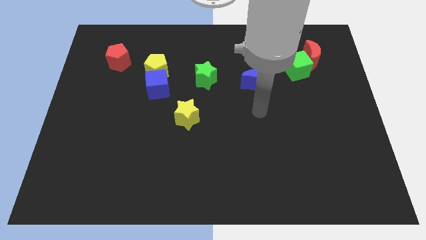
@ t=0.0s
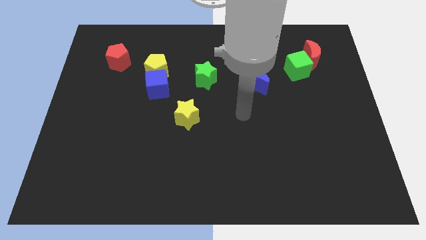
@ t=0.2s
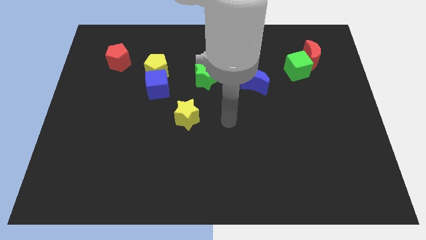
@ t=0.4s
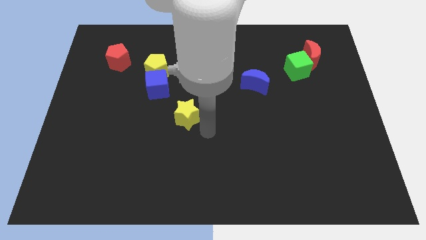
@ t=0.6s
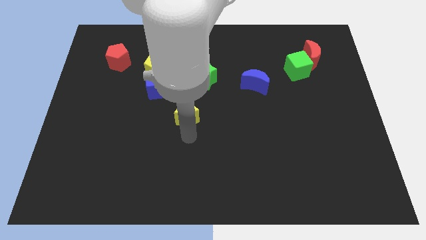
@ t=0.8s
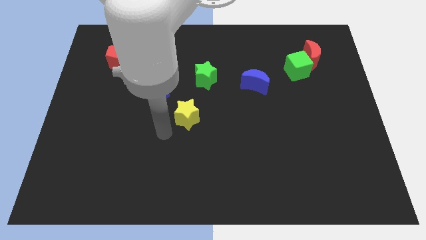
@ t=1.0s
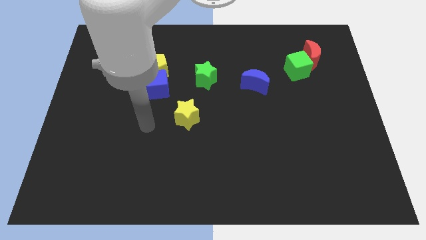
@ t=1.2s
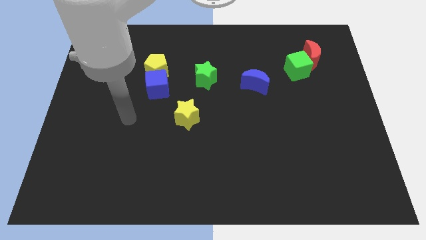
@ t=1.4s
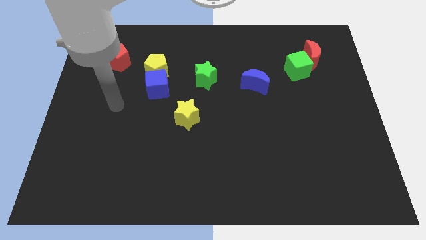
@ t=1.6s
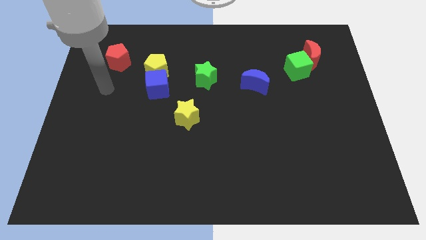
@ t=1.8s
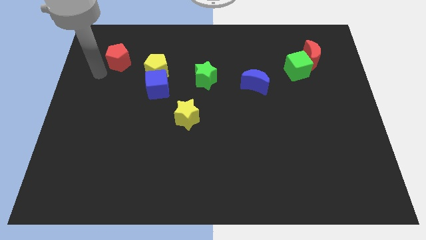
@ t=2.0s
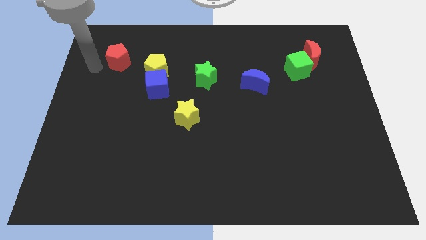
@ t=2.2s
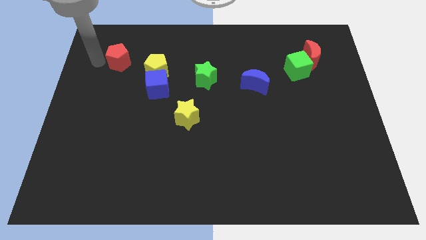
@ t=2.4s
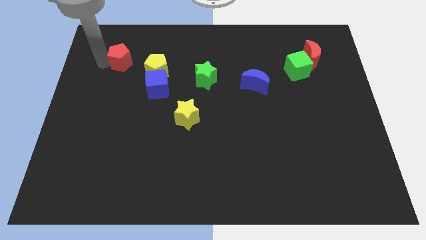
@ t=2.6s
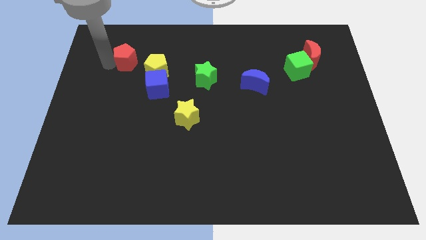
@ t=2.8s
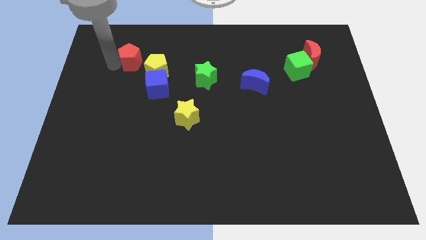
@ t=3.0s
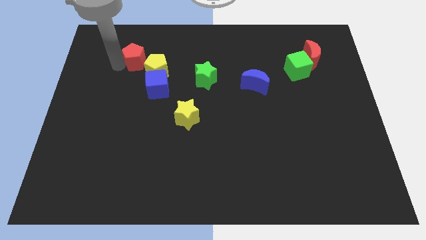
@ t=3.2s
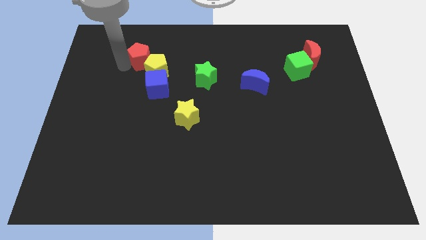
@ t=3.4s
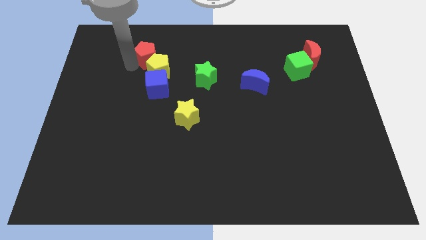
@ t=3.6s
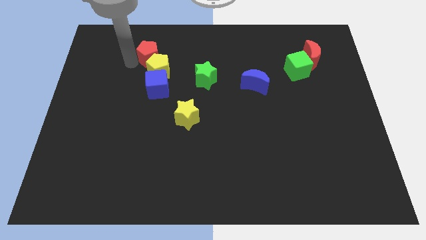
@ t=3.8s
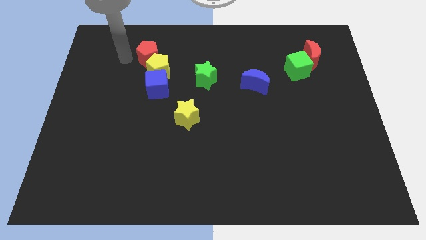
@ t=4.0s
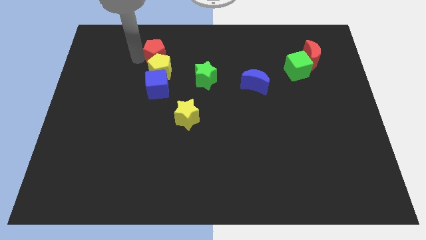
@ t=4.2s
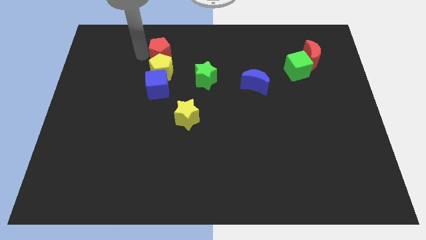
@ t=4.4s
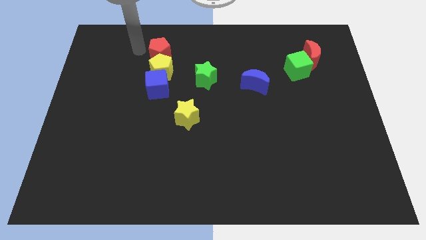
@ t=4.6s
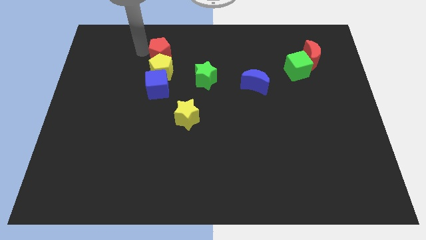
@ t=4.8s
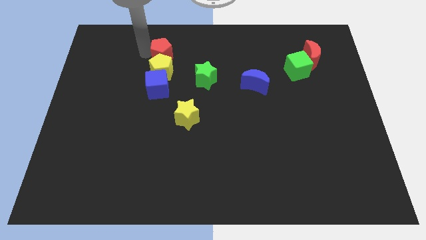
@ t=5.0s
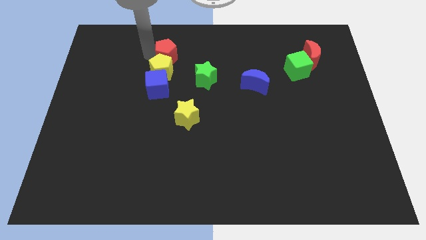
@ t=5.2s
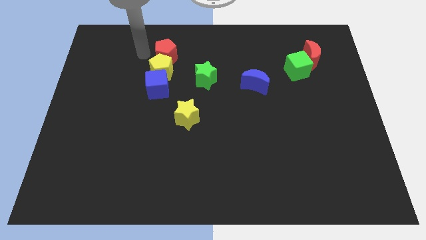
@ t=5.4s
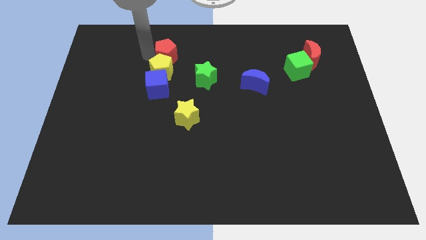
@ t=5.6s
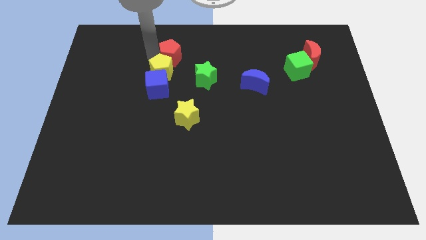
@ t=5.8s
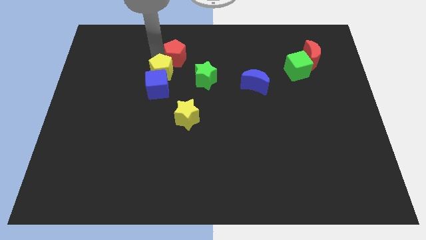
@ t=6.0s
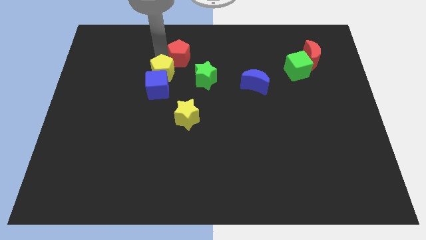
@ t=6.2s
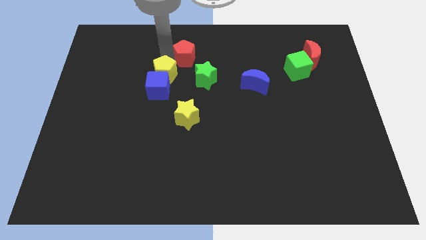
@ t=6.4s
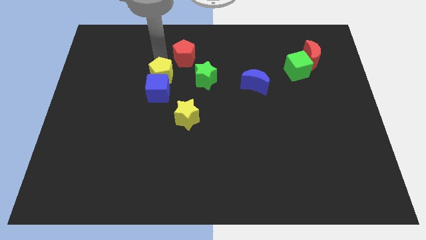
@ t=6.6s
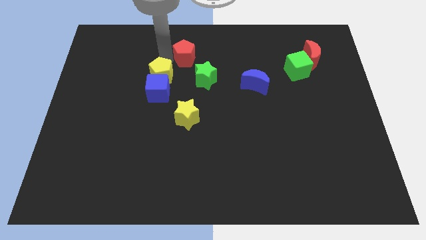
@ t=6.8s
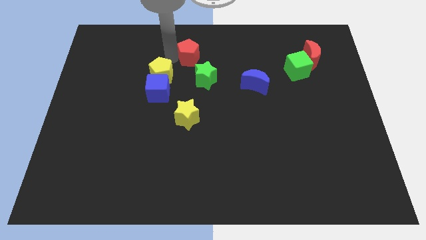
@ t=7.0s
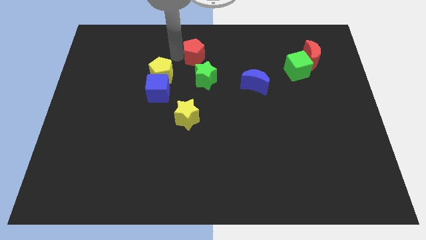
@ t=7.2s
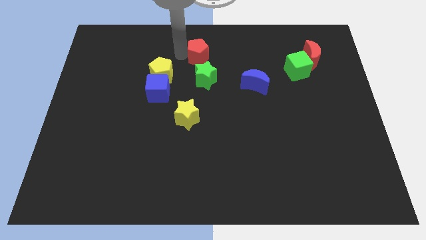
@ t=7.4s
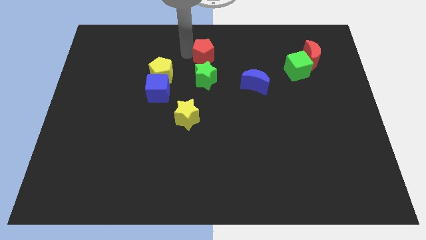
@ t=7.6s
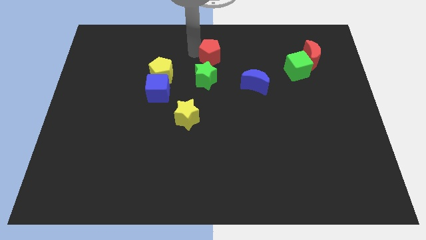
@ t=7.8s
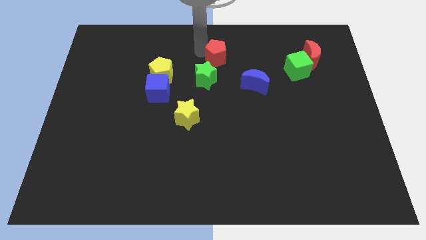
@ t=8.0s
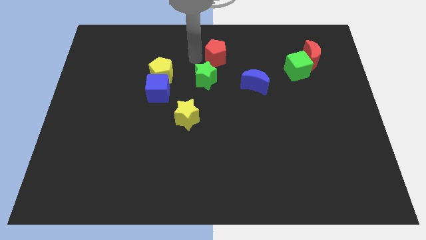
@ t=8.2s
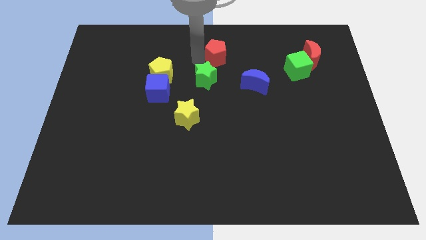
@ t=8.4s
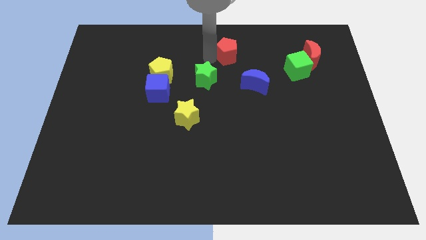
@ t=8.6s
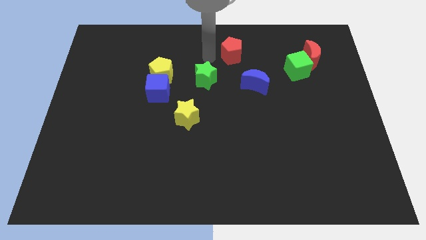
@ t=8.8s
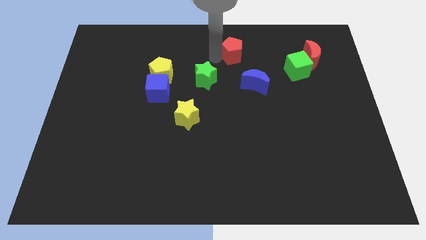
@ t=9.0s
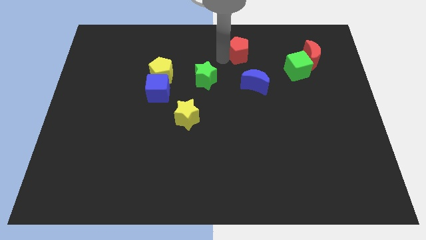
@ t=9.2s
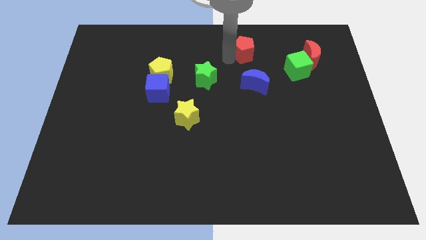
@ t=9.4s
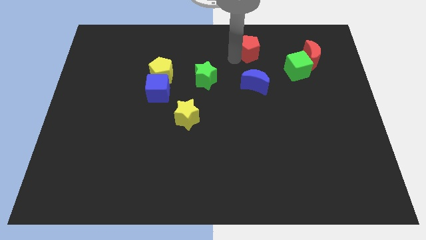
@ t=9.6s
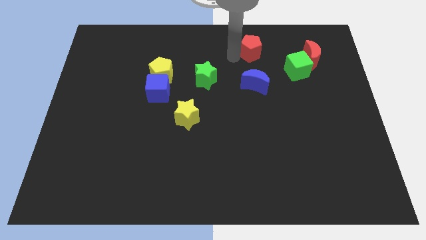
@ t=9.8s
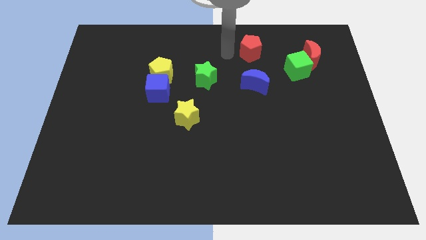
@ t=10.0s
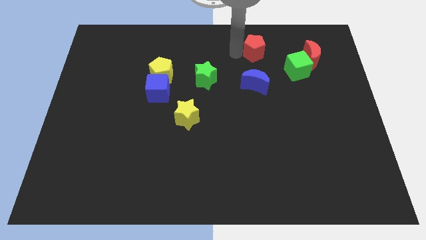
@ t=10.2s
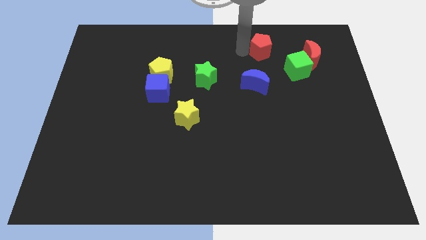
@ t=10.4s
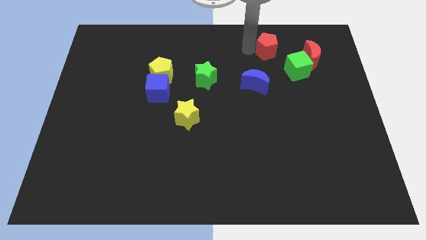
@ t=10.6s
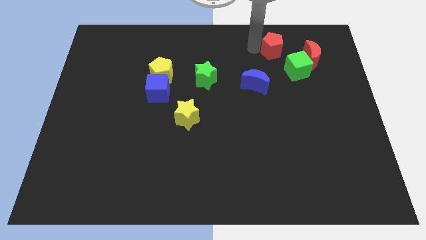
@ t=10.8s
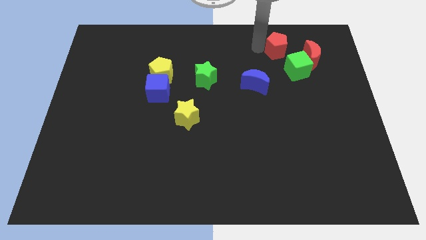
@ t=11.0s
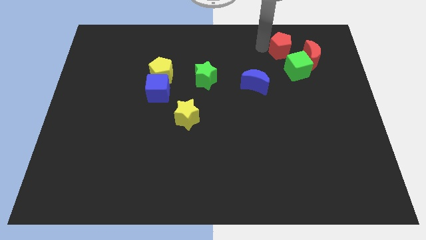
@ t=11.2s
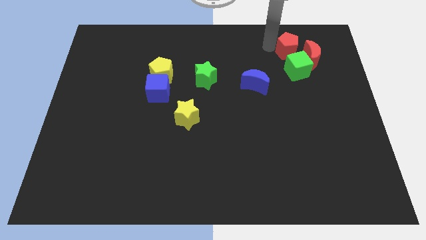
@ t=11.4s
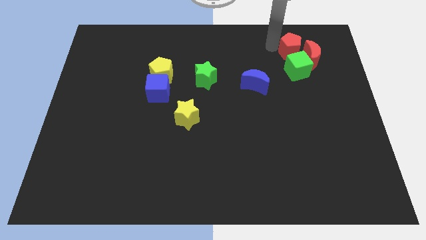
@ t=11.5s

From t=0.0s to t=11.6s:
put the red pentagon to the red moon

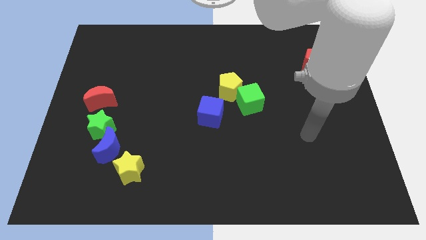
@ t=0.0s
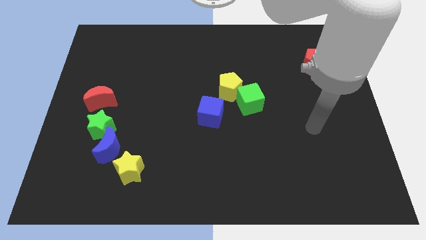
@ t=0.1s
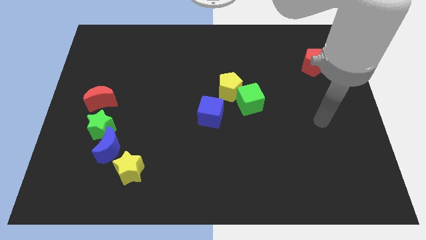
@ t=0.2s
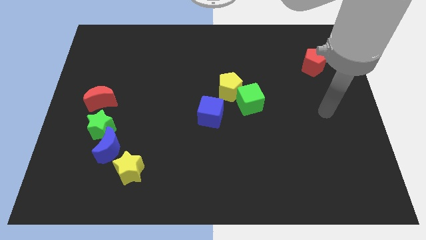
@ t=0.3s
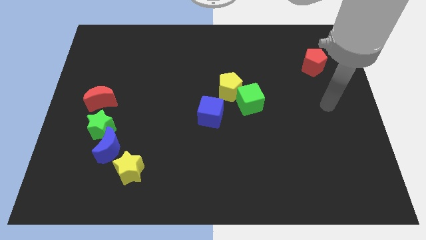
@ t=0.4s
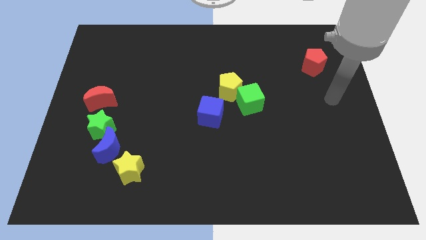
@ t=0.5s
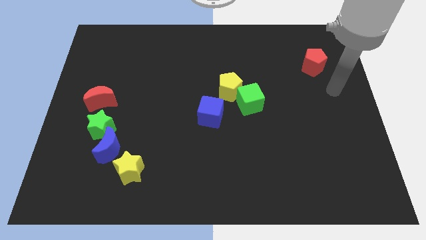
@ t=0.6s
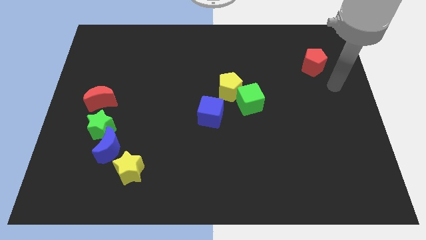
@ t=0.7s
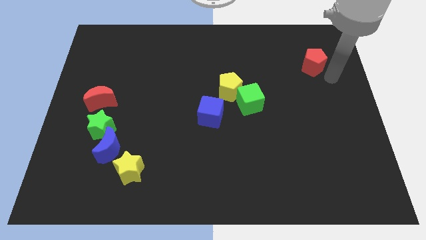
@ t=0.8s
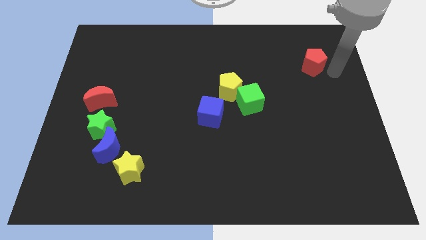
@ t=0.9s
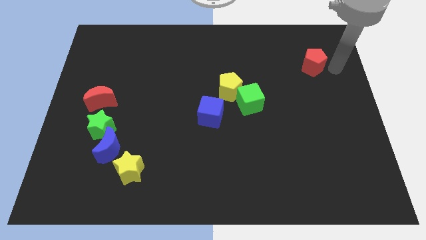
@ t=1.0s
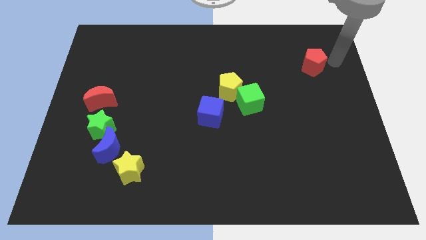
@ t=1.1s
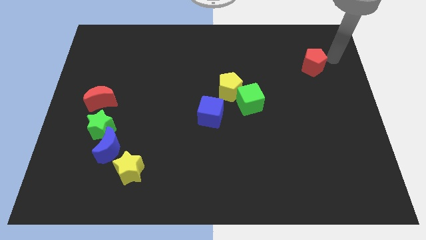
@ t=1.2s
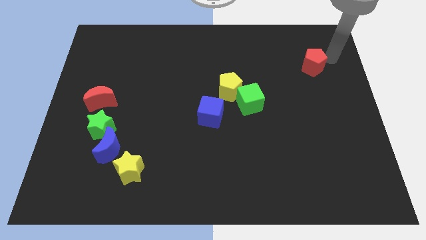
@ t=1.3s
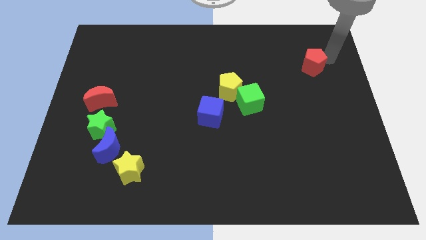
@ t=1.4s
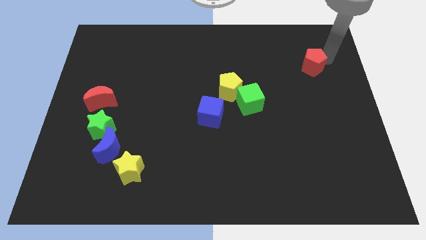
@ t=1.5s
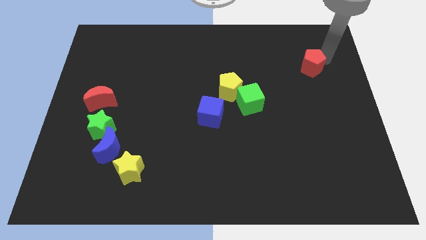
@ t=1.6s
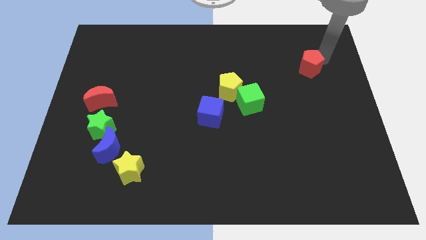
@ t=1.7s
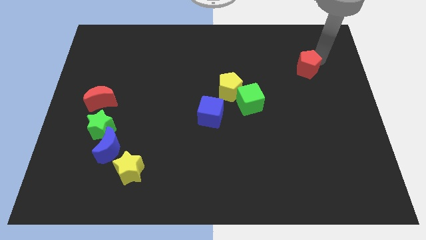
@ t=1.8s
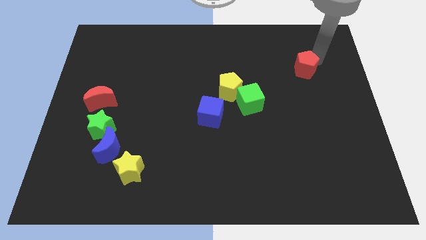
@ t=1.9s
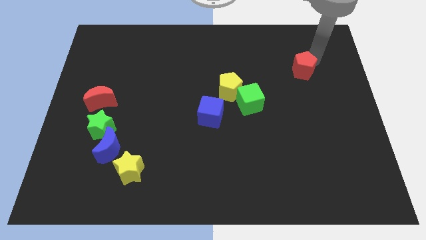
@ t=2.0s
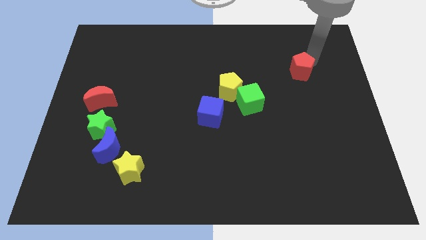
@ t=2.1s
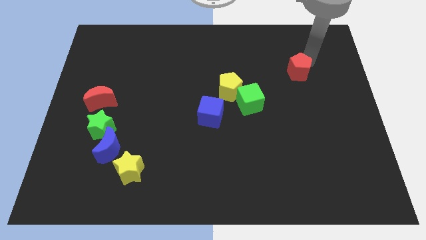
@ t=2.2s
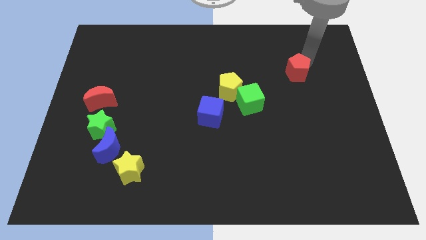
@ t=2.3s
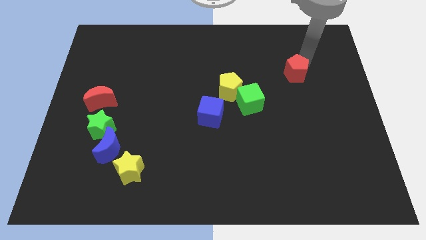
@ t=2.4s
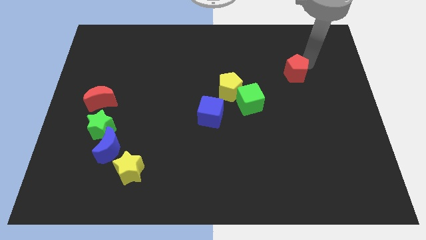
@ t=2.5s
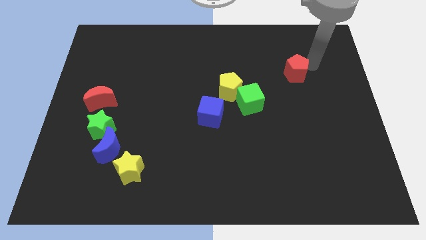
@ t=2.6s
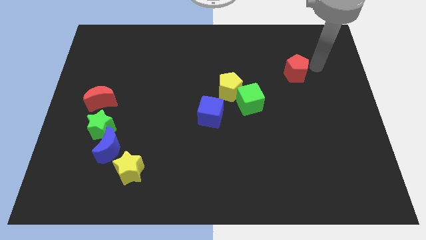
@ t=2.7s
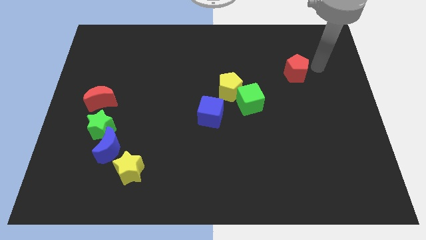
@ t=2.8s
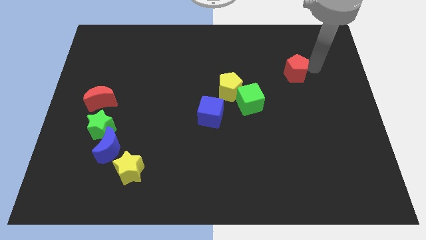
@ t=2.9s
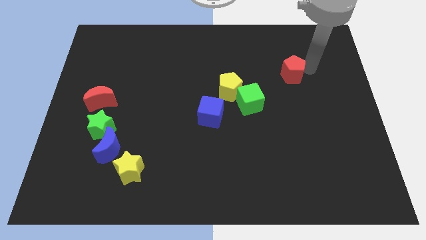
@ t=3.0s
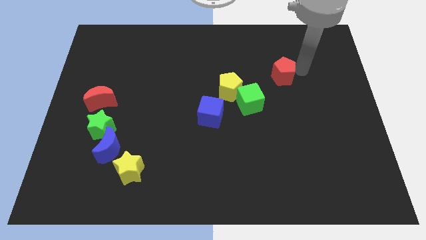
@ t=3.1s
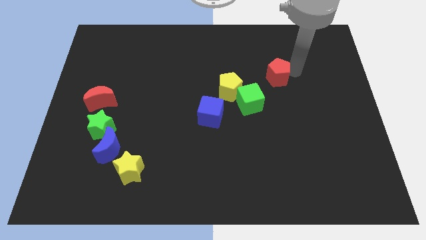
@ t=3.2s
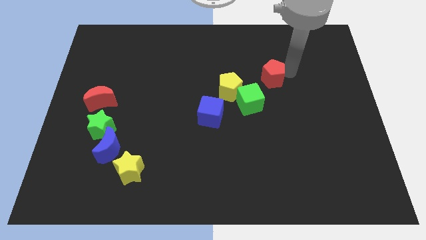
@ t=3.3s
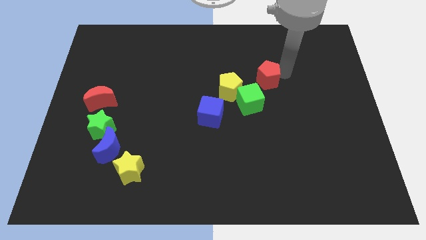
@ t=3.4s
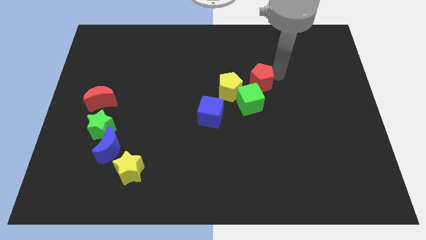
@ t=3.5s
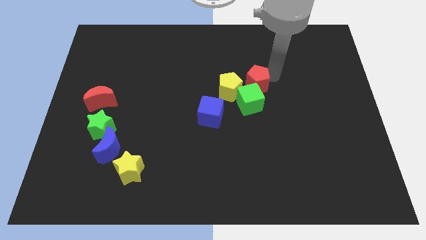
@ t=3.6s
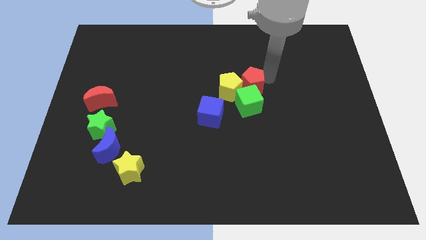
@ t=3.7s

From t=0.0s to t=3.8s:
push the red pentagon to the yellow pentagon
